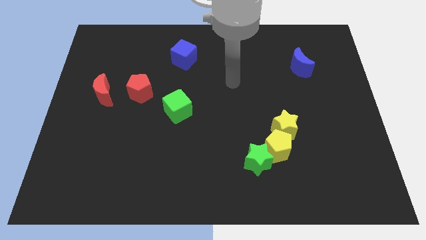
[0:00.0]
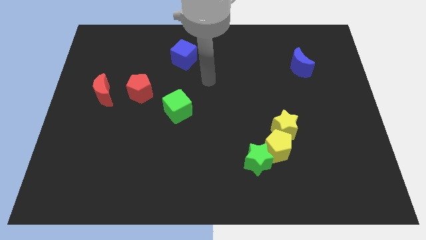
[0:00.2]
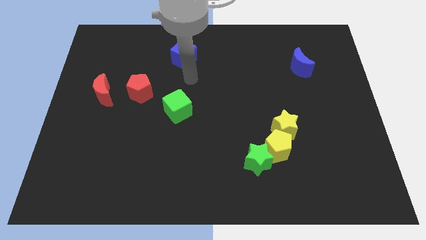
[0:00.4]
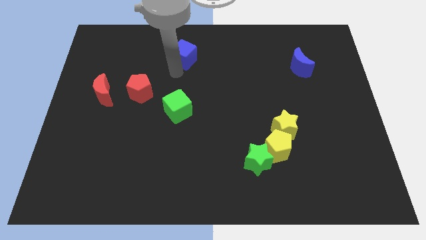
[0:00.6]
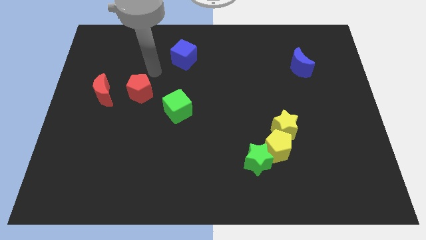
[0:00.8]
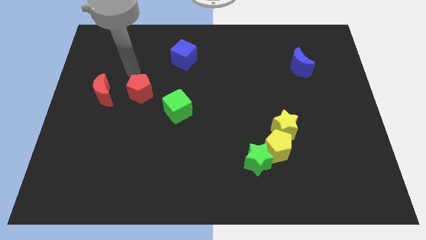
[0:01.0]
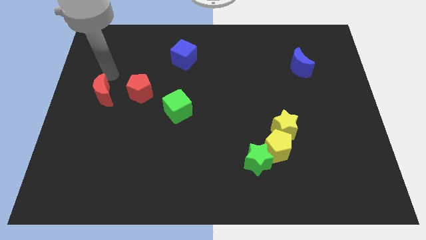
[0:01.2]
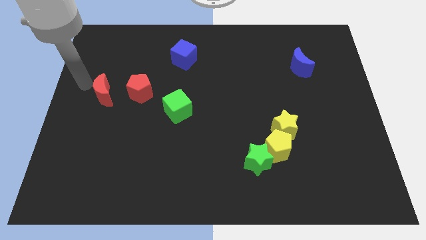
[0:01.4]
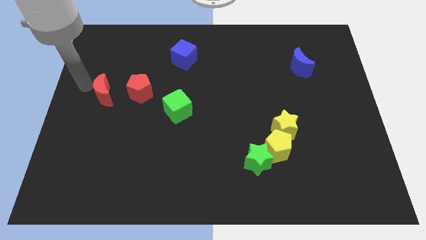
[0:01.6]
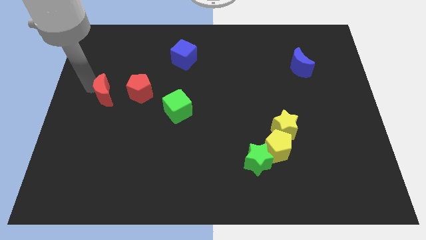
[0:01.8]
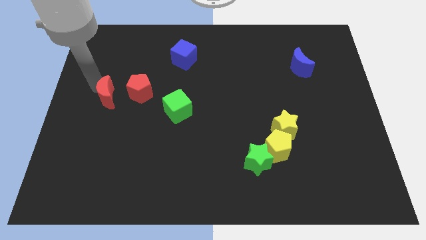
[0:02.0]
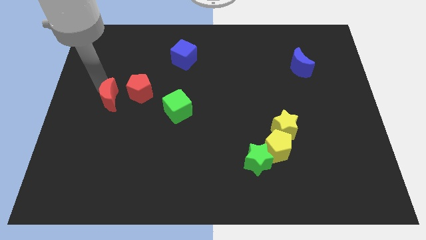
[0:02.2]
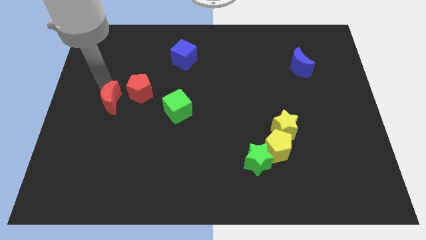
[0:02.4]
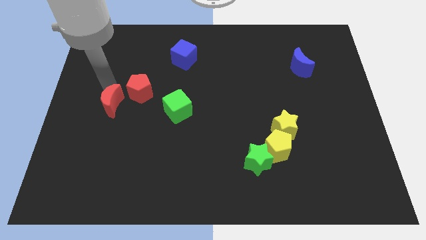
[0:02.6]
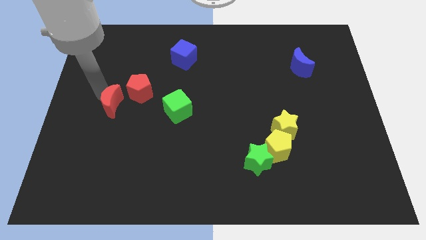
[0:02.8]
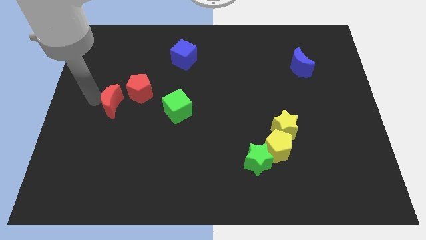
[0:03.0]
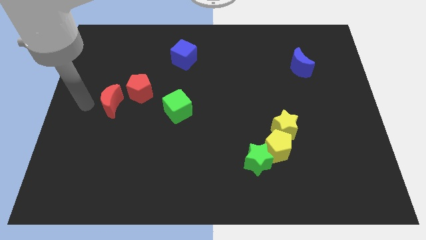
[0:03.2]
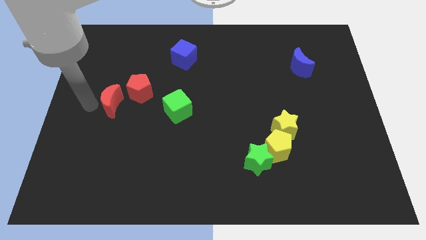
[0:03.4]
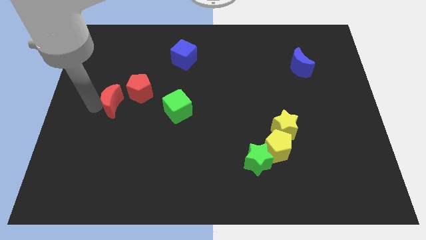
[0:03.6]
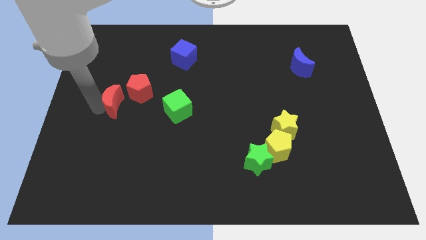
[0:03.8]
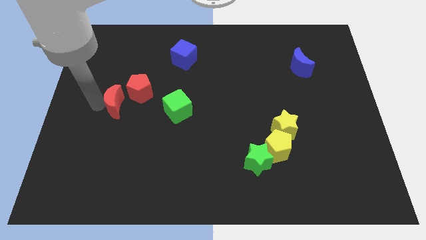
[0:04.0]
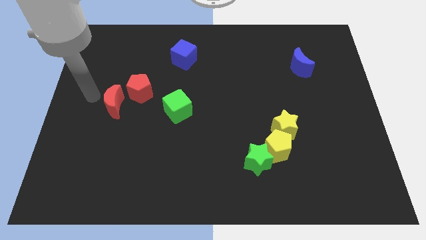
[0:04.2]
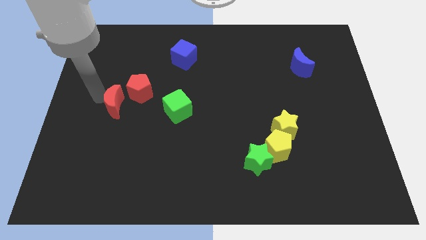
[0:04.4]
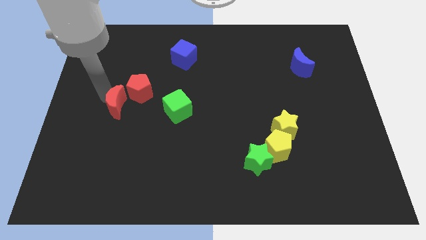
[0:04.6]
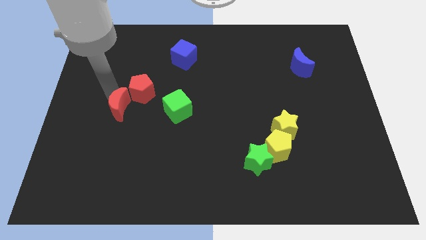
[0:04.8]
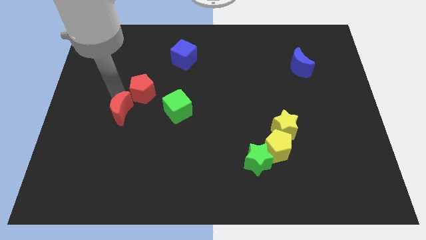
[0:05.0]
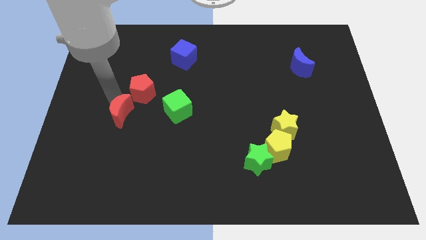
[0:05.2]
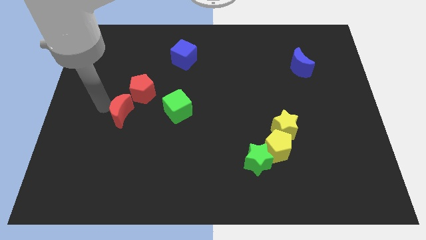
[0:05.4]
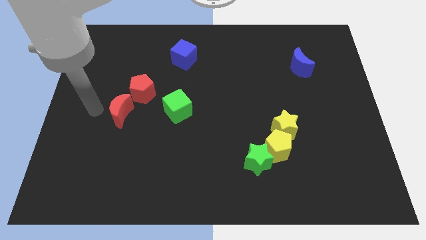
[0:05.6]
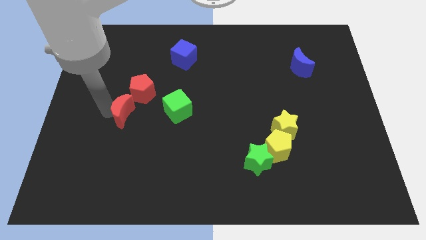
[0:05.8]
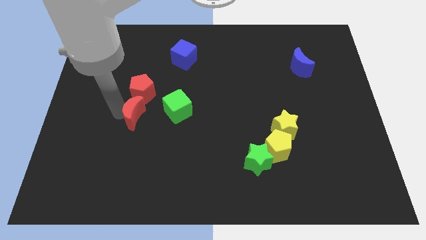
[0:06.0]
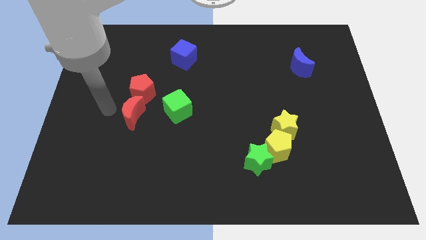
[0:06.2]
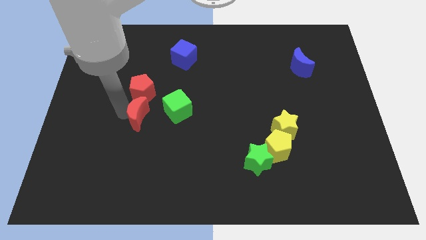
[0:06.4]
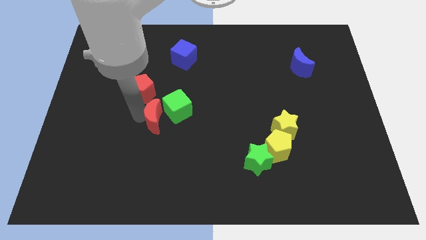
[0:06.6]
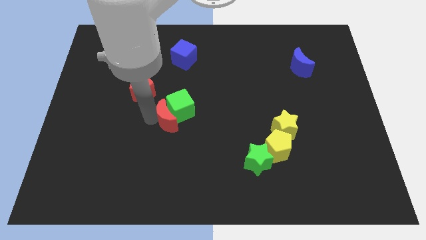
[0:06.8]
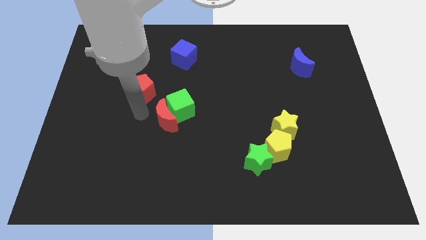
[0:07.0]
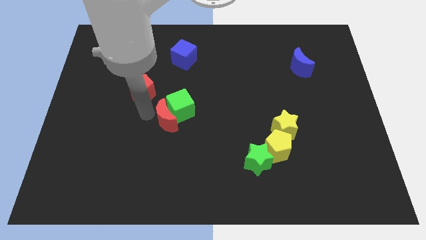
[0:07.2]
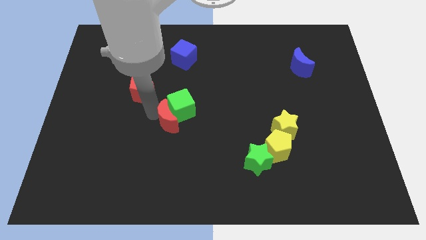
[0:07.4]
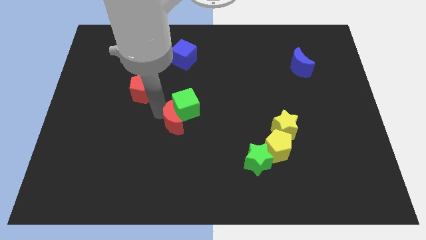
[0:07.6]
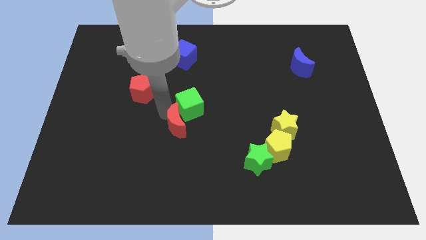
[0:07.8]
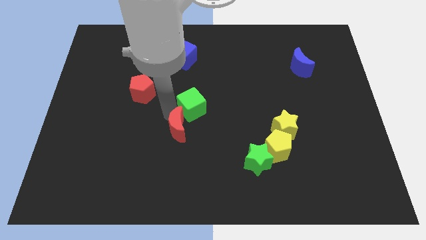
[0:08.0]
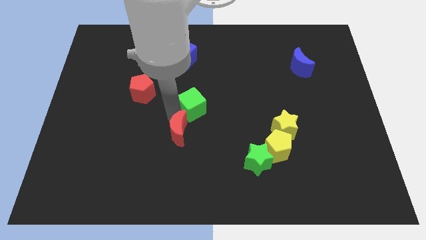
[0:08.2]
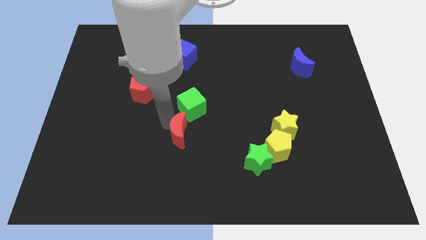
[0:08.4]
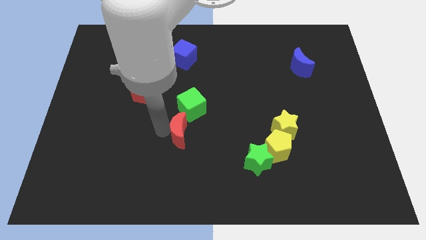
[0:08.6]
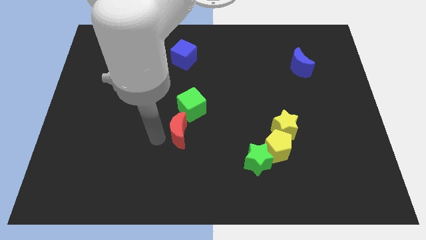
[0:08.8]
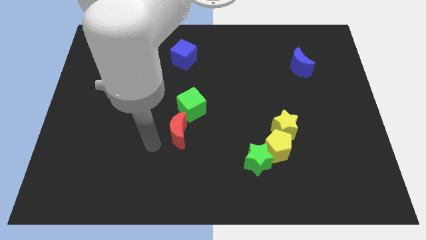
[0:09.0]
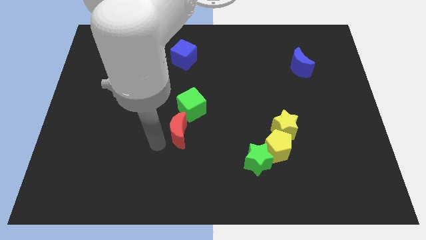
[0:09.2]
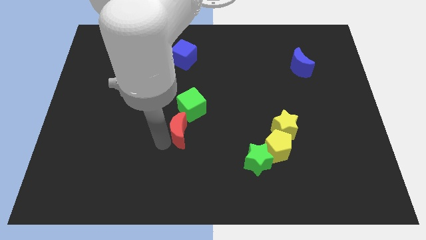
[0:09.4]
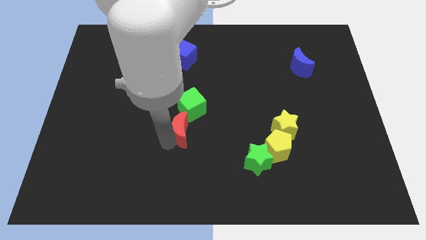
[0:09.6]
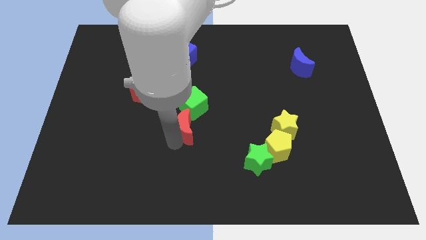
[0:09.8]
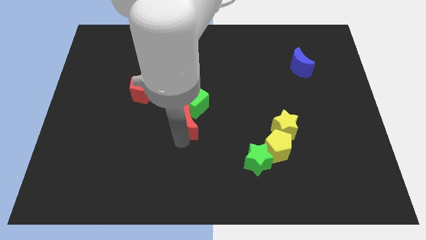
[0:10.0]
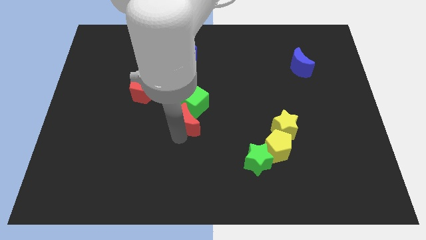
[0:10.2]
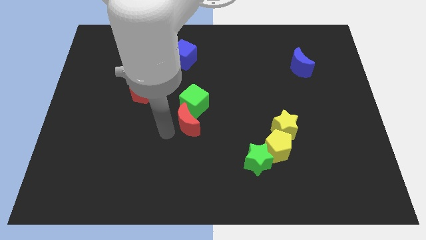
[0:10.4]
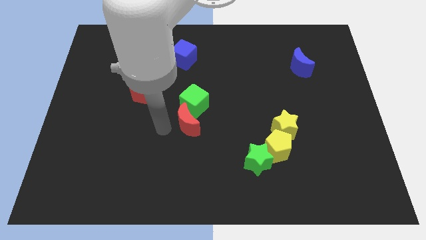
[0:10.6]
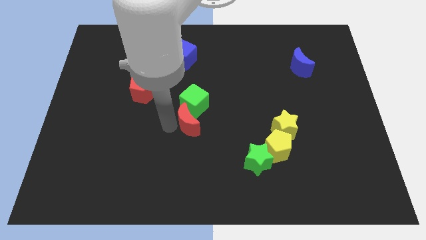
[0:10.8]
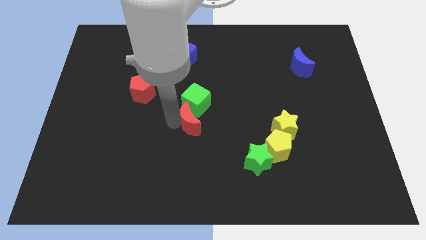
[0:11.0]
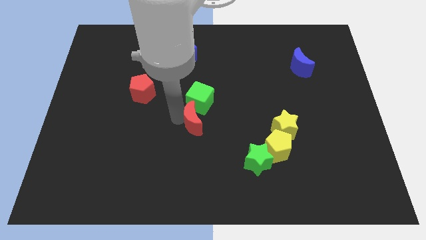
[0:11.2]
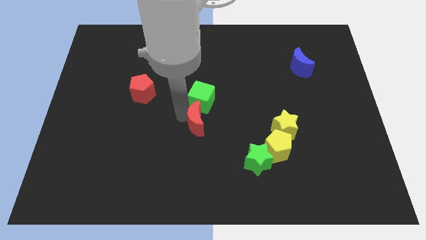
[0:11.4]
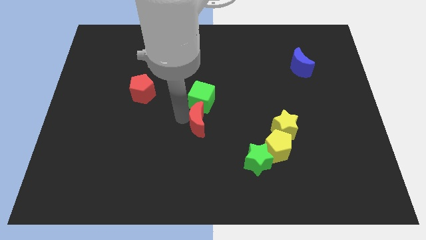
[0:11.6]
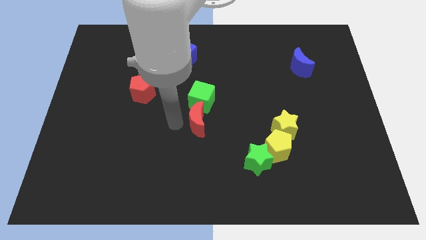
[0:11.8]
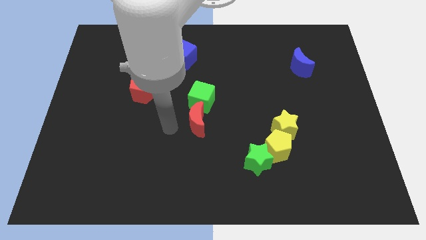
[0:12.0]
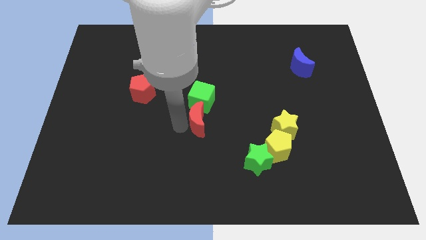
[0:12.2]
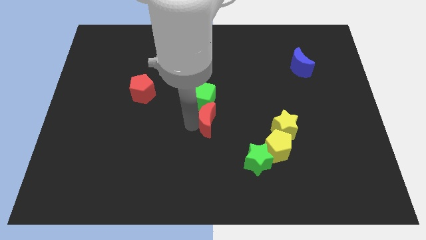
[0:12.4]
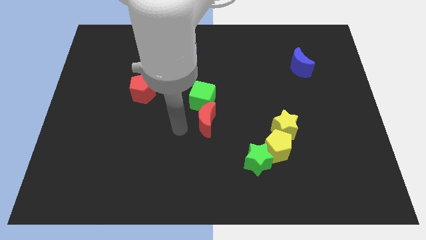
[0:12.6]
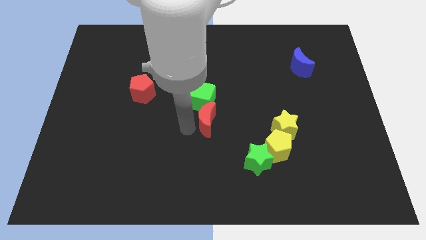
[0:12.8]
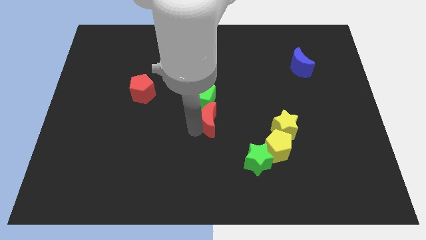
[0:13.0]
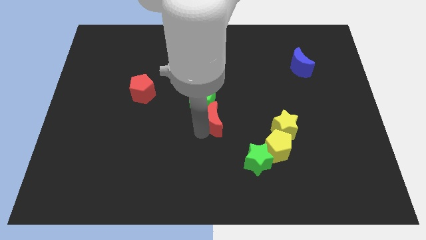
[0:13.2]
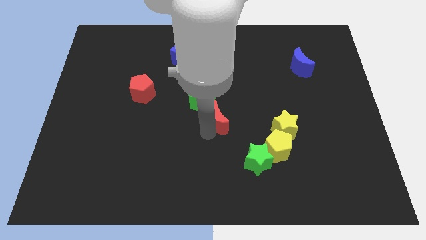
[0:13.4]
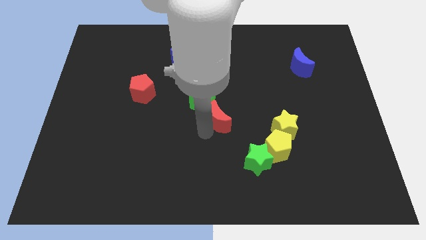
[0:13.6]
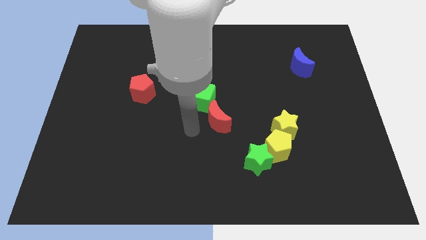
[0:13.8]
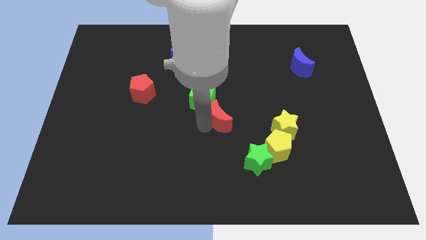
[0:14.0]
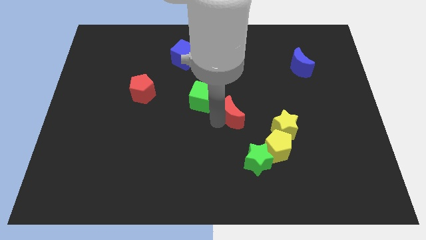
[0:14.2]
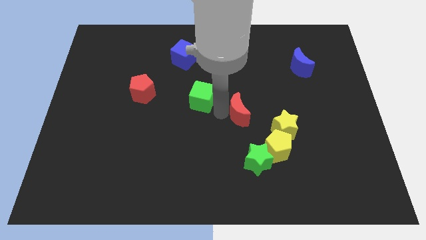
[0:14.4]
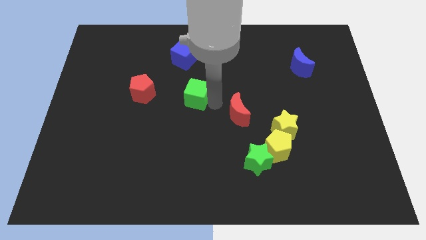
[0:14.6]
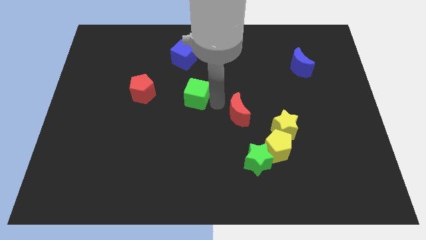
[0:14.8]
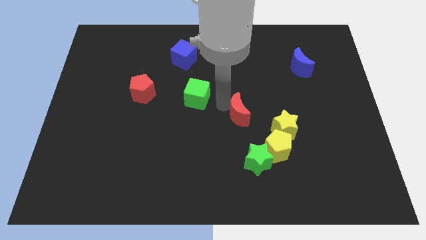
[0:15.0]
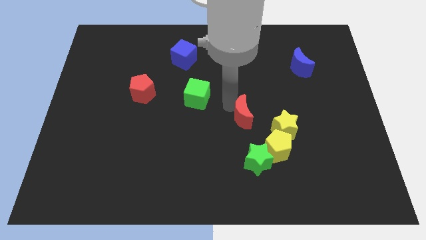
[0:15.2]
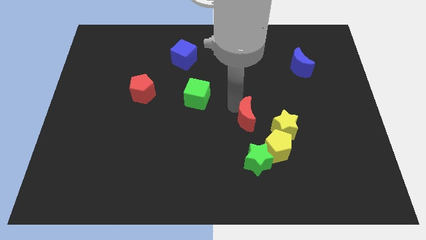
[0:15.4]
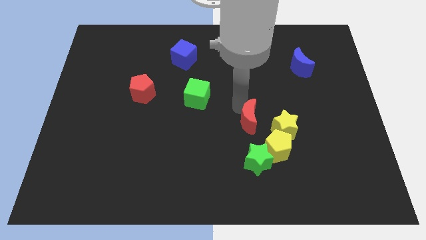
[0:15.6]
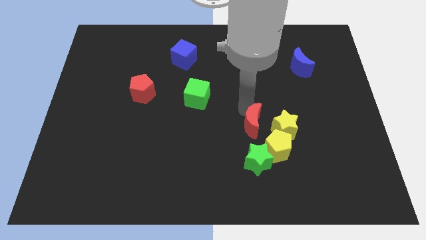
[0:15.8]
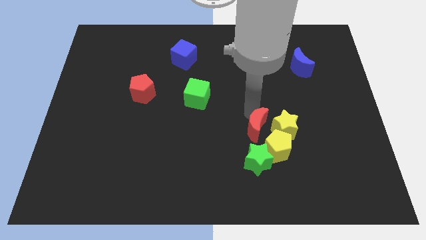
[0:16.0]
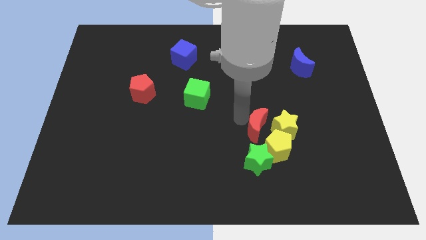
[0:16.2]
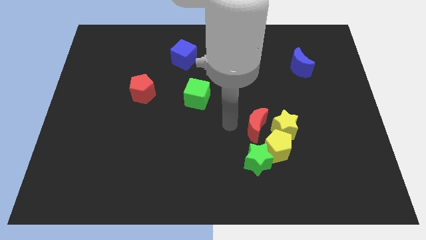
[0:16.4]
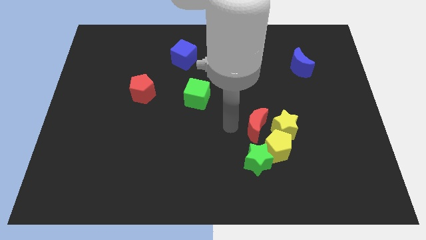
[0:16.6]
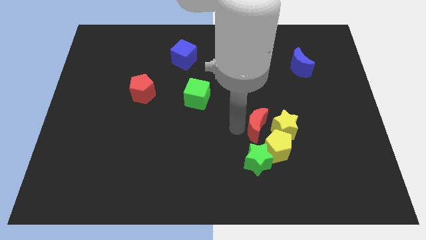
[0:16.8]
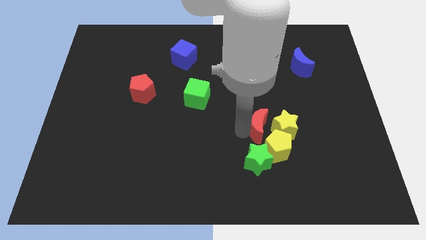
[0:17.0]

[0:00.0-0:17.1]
slide the red moon towards the yellow star
